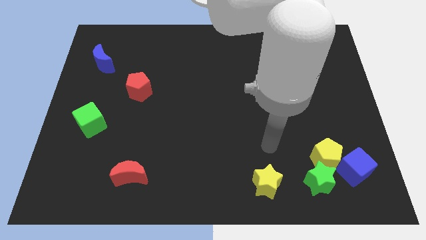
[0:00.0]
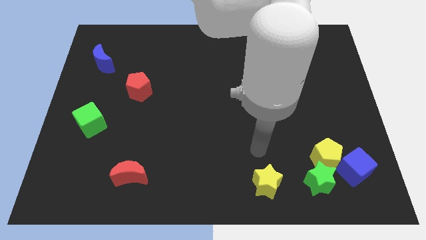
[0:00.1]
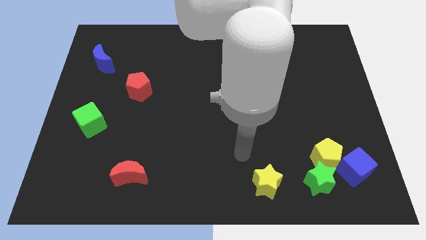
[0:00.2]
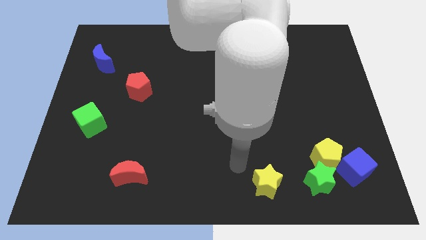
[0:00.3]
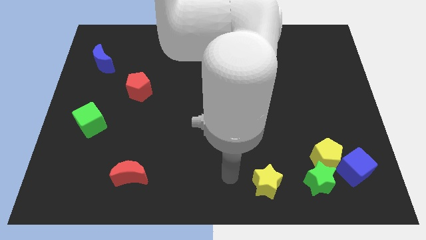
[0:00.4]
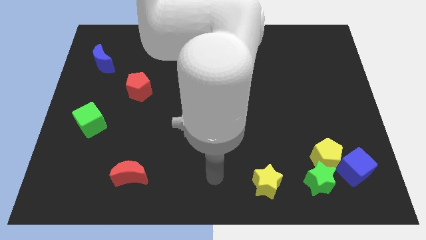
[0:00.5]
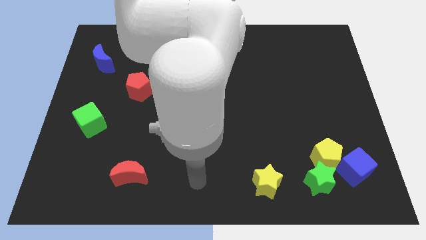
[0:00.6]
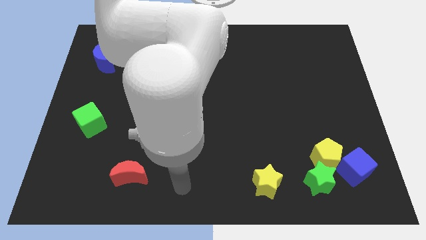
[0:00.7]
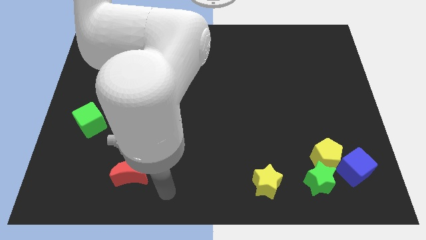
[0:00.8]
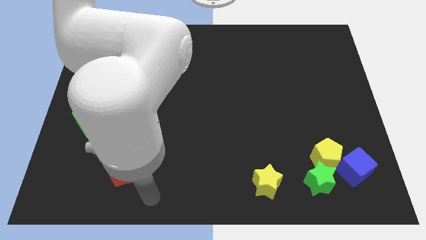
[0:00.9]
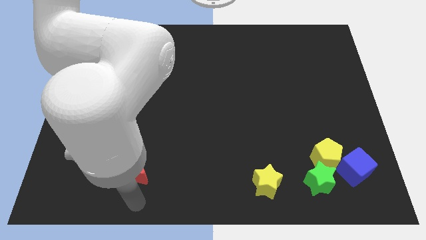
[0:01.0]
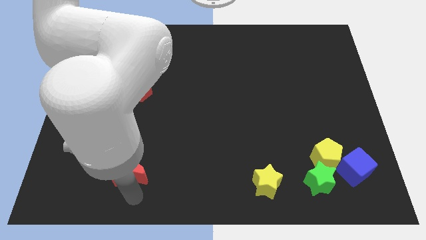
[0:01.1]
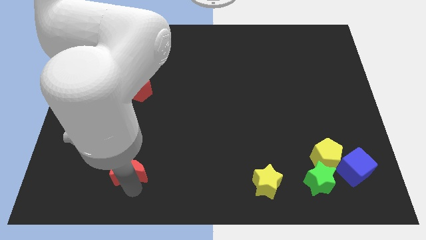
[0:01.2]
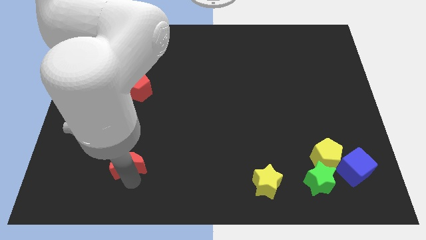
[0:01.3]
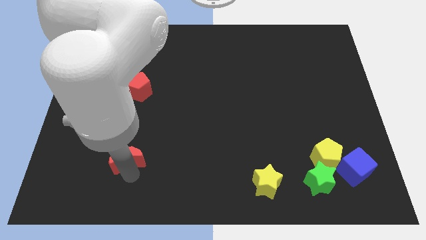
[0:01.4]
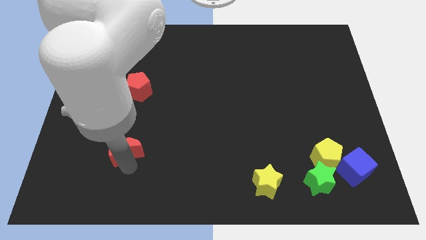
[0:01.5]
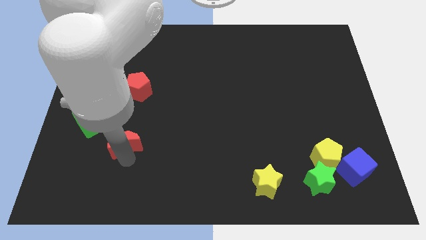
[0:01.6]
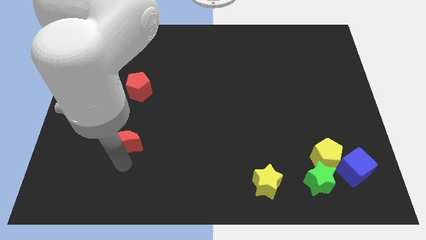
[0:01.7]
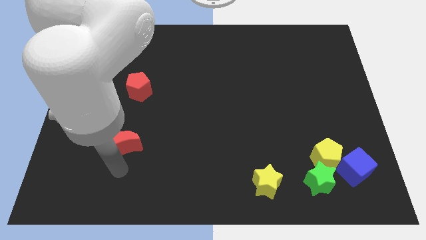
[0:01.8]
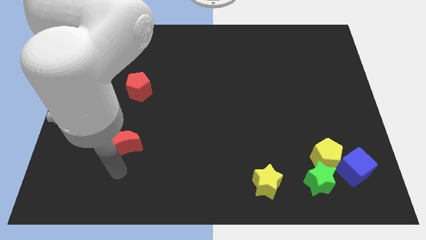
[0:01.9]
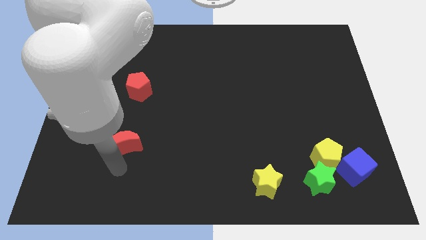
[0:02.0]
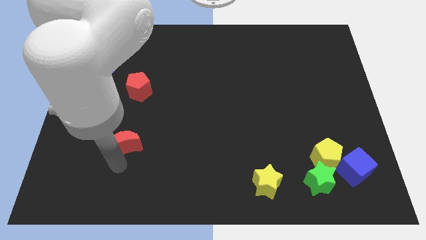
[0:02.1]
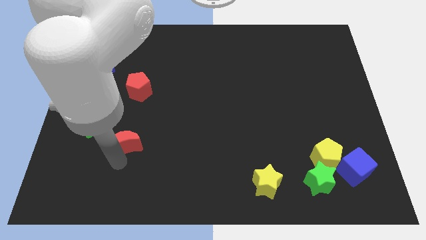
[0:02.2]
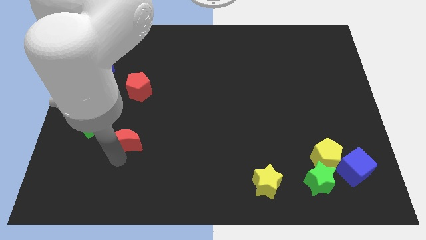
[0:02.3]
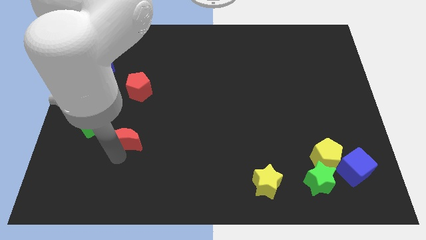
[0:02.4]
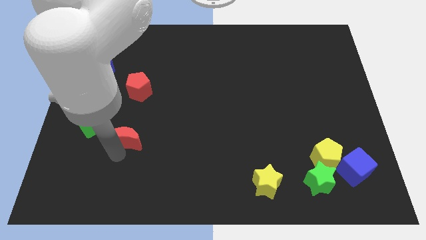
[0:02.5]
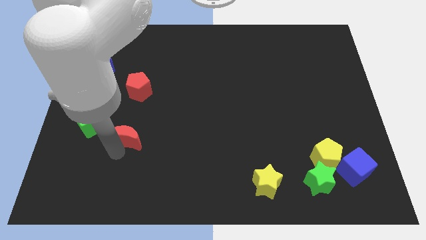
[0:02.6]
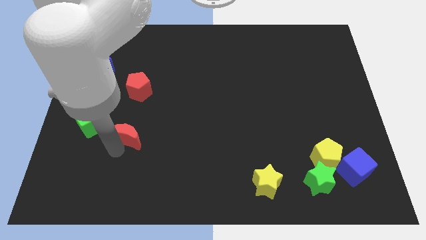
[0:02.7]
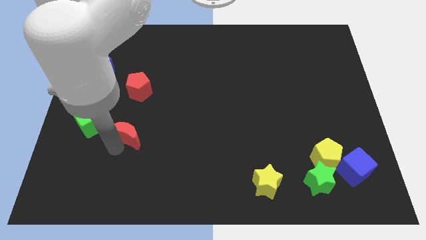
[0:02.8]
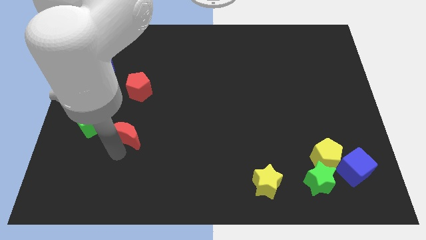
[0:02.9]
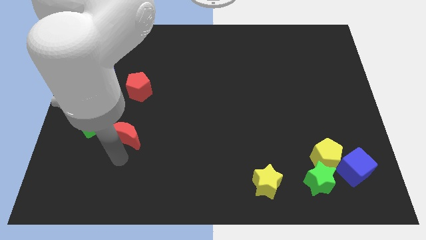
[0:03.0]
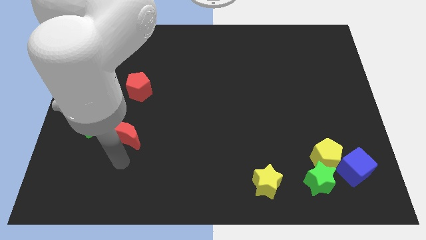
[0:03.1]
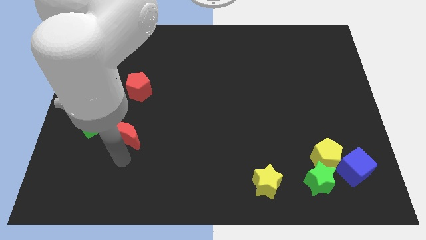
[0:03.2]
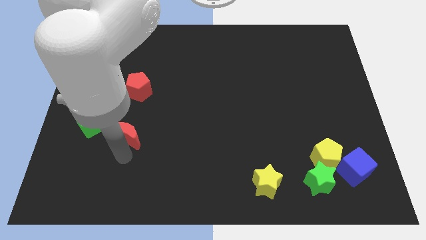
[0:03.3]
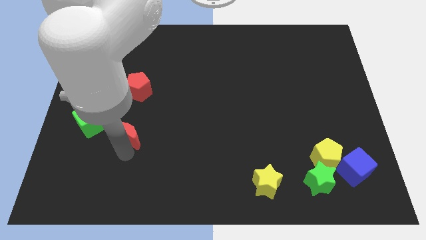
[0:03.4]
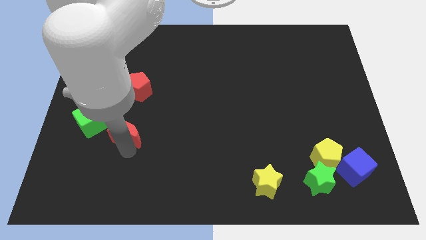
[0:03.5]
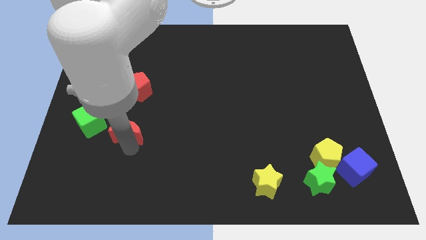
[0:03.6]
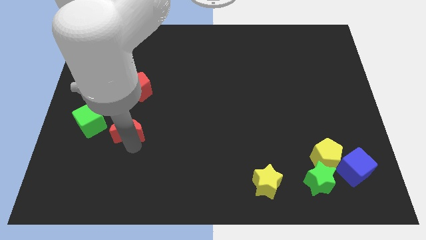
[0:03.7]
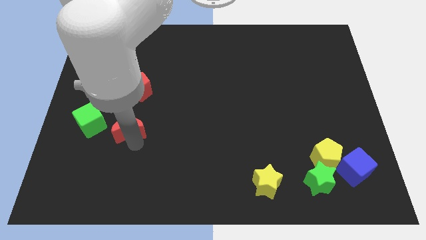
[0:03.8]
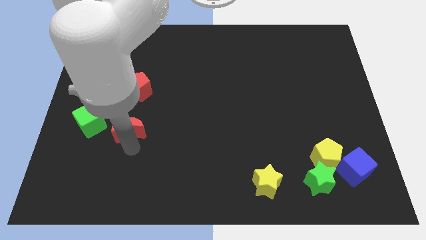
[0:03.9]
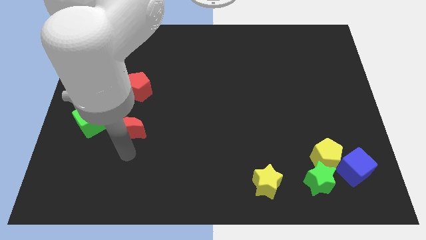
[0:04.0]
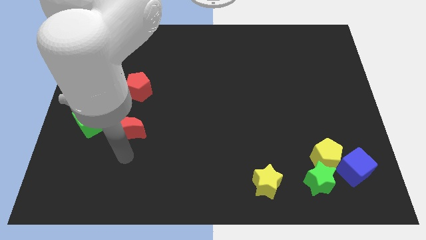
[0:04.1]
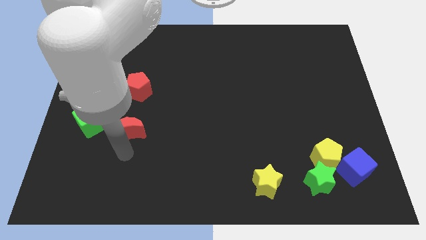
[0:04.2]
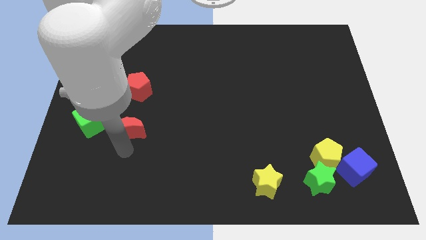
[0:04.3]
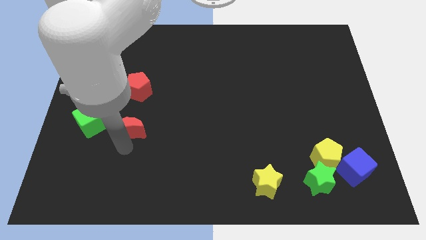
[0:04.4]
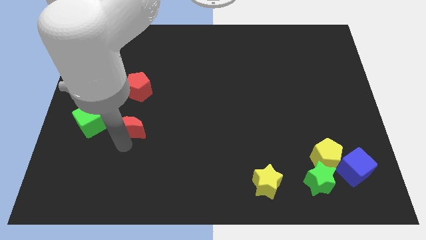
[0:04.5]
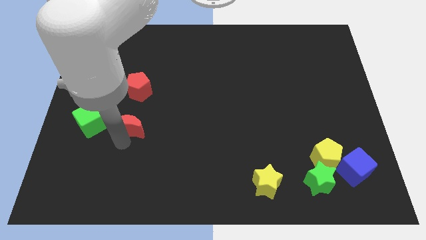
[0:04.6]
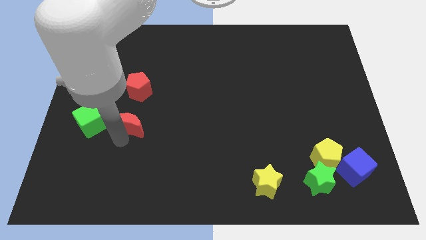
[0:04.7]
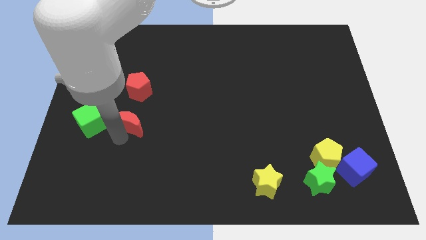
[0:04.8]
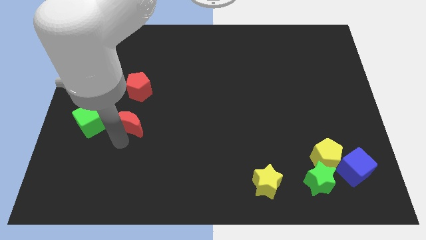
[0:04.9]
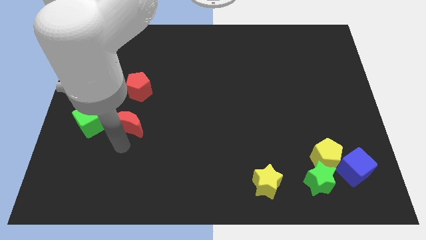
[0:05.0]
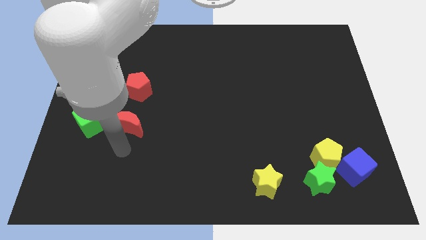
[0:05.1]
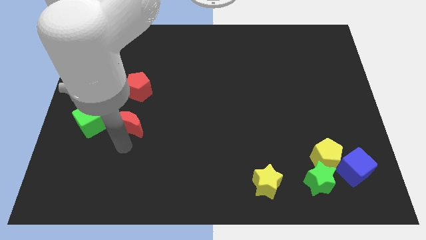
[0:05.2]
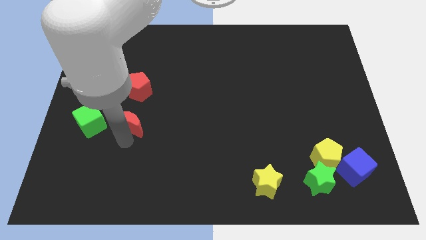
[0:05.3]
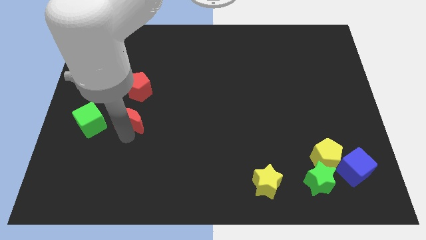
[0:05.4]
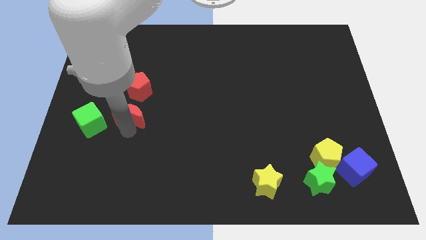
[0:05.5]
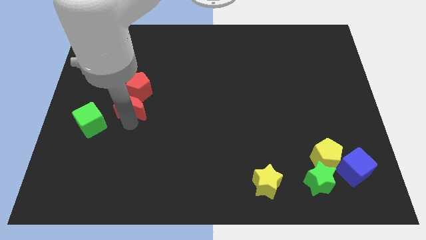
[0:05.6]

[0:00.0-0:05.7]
slide the red moon to the red pentagon

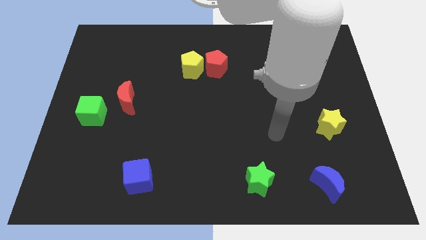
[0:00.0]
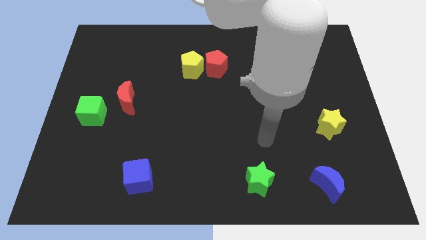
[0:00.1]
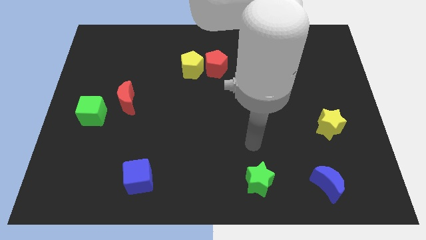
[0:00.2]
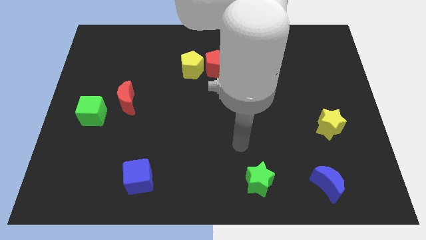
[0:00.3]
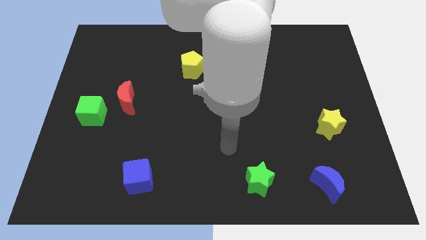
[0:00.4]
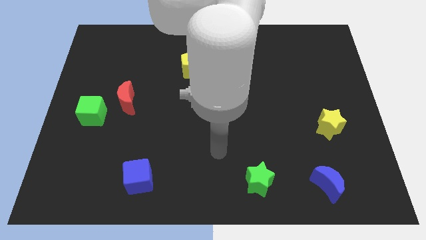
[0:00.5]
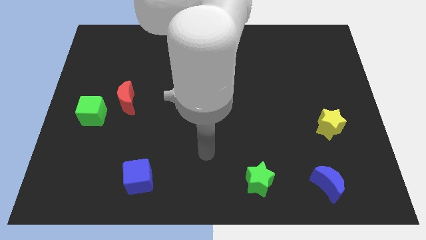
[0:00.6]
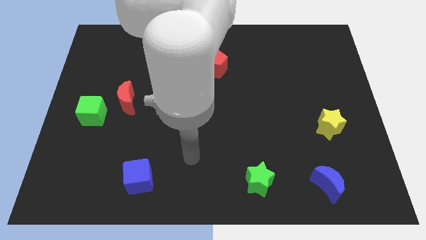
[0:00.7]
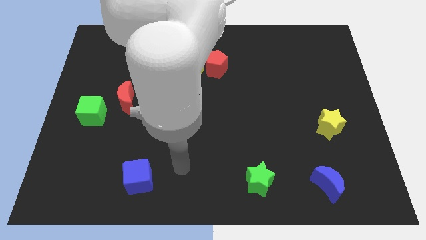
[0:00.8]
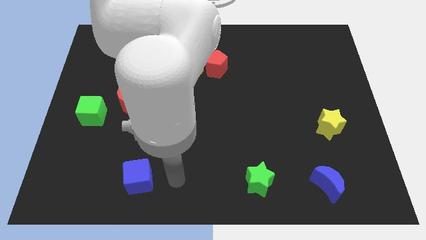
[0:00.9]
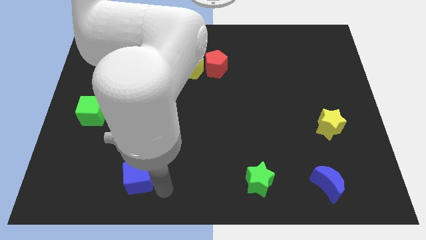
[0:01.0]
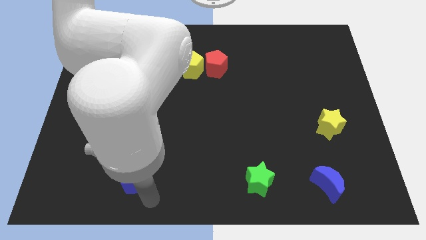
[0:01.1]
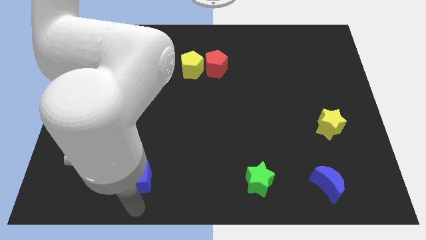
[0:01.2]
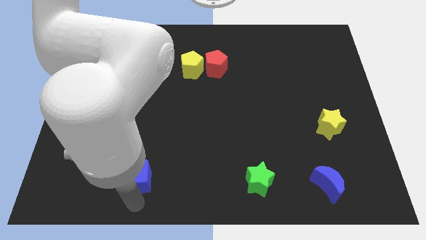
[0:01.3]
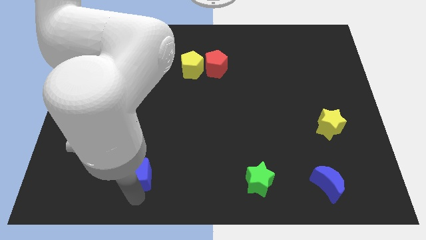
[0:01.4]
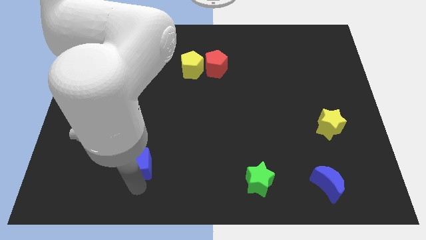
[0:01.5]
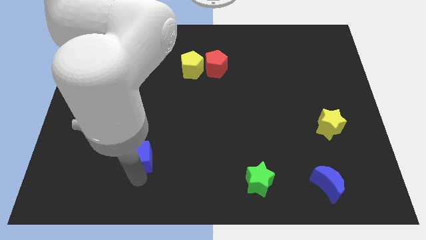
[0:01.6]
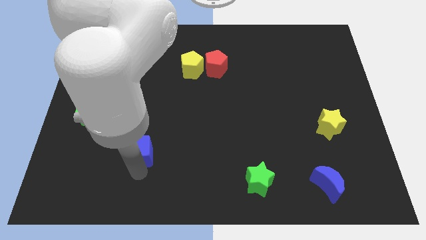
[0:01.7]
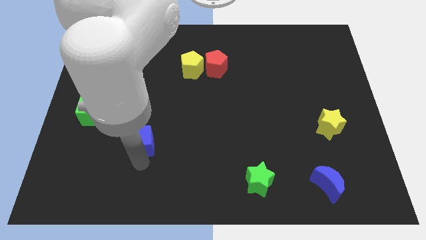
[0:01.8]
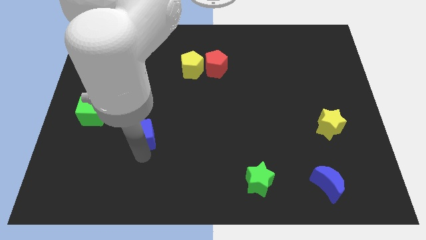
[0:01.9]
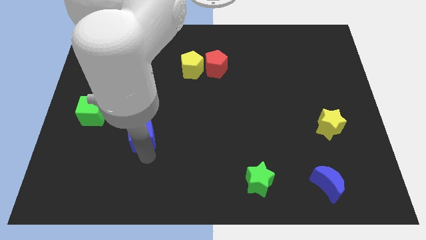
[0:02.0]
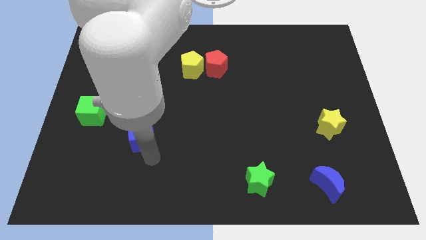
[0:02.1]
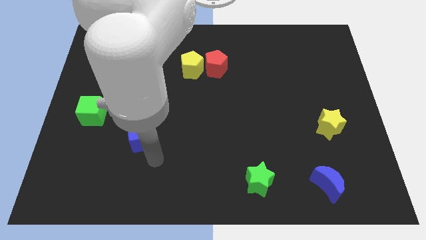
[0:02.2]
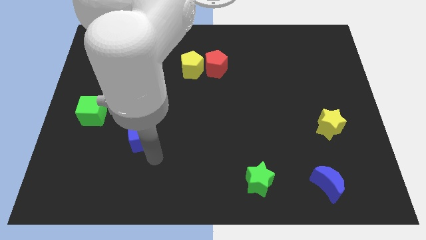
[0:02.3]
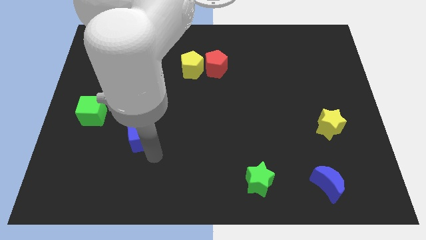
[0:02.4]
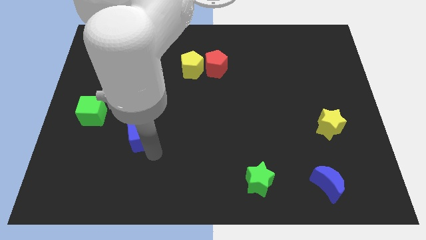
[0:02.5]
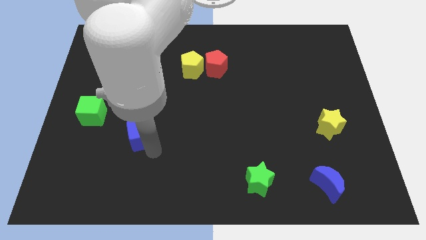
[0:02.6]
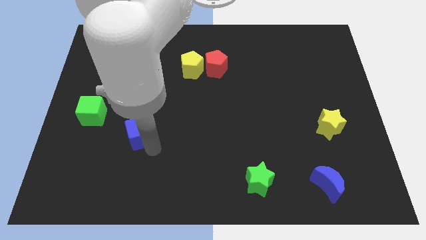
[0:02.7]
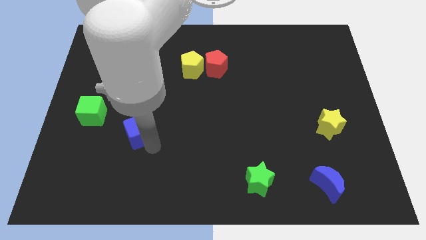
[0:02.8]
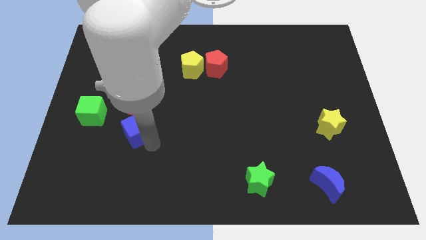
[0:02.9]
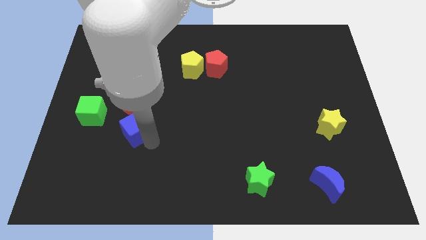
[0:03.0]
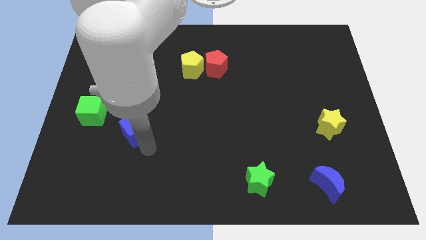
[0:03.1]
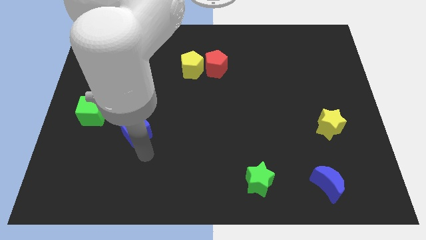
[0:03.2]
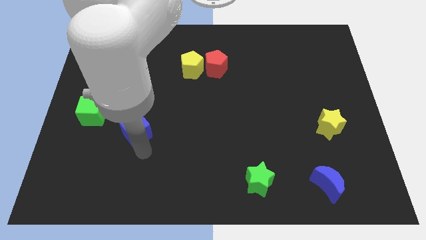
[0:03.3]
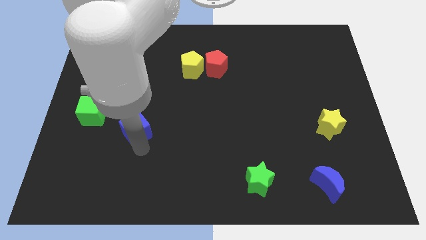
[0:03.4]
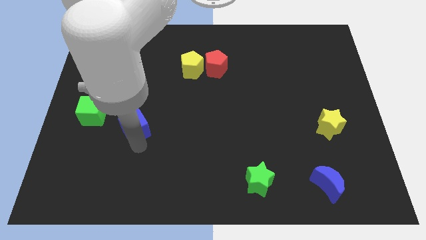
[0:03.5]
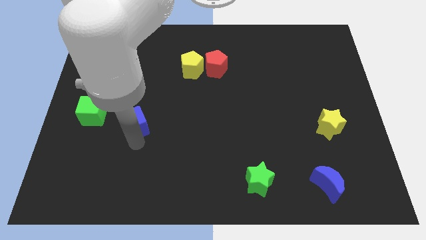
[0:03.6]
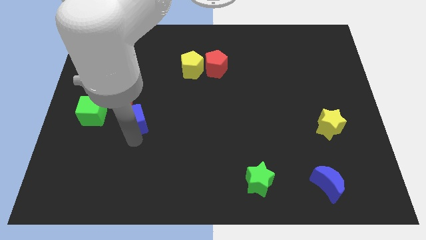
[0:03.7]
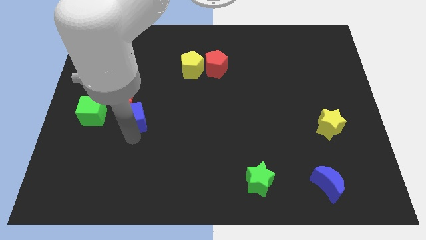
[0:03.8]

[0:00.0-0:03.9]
move the blue cube next to the red moon
